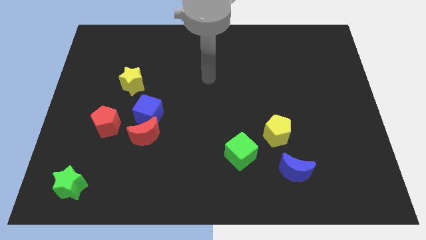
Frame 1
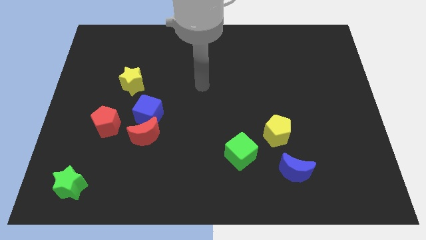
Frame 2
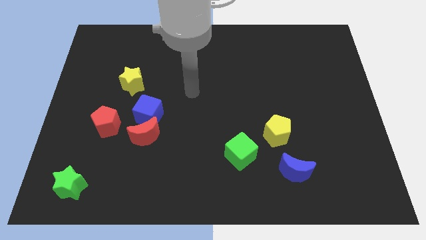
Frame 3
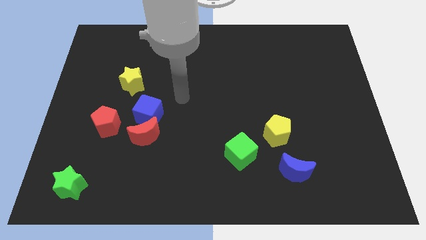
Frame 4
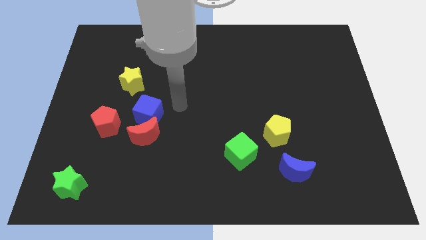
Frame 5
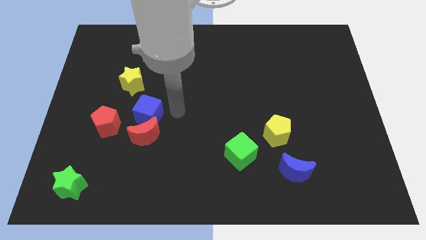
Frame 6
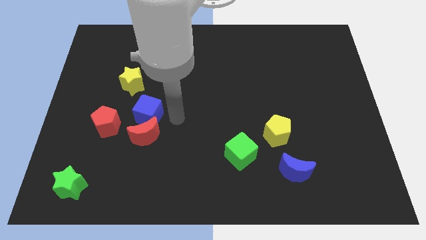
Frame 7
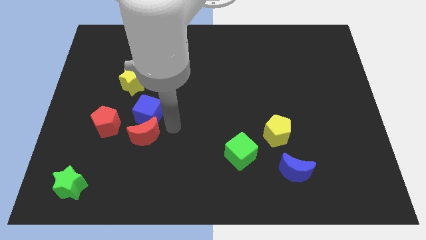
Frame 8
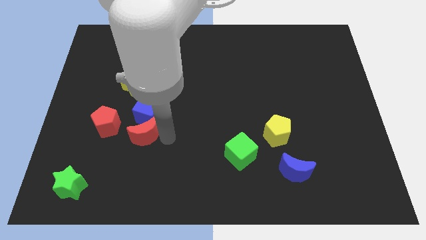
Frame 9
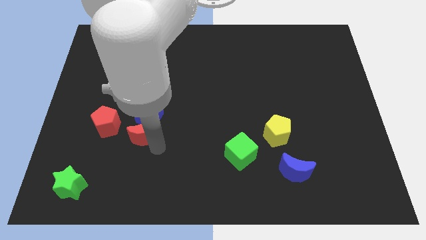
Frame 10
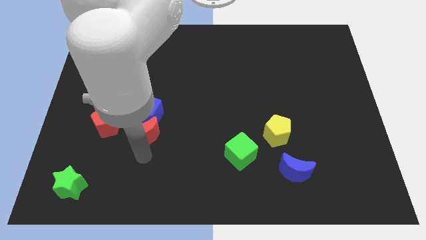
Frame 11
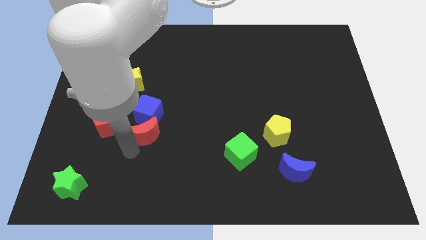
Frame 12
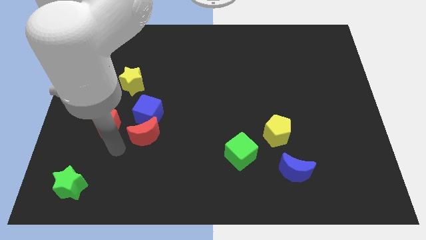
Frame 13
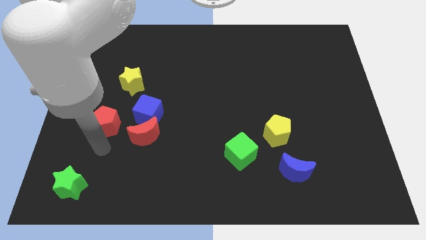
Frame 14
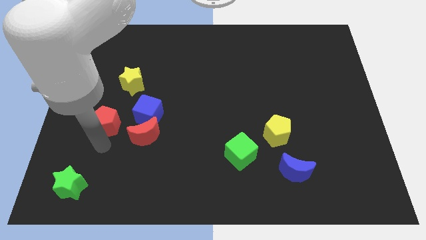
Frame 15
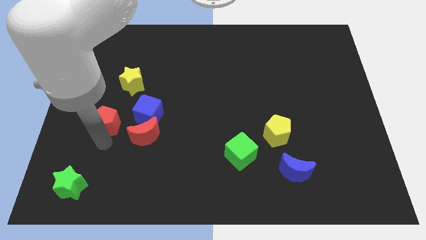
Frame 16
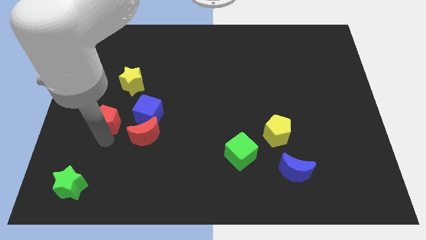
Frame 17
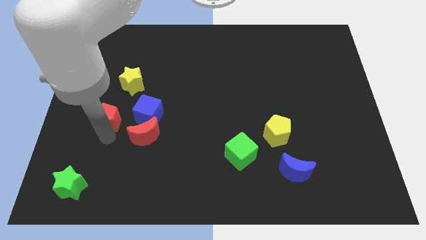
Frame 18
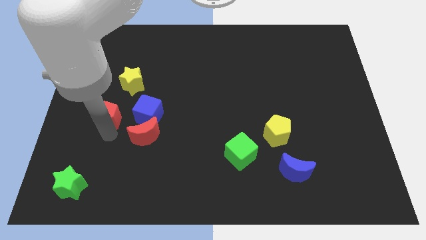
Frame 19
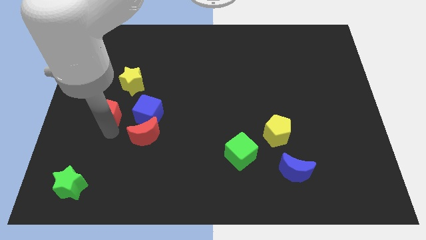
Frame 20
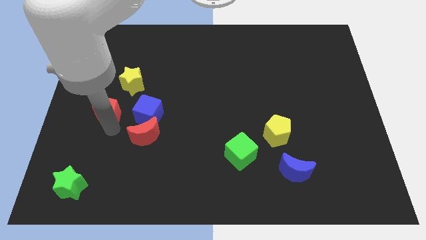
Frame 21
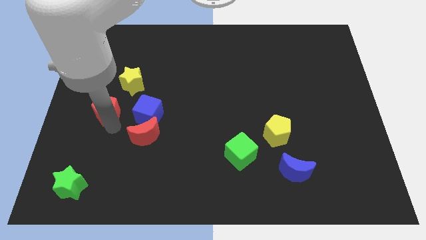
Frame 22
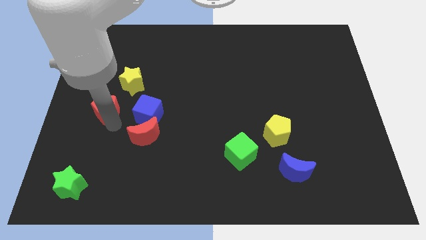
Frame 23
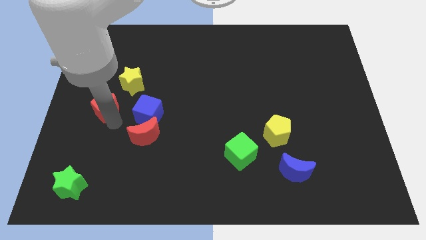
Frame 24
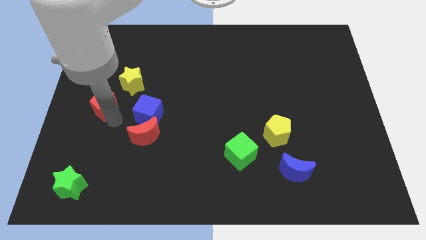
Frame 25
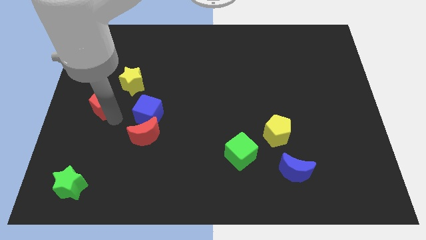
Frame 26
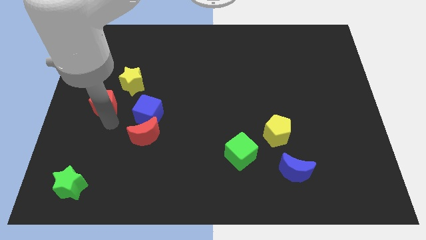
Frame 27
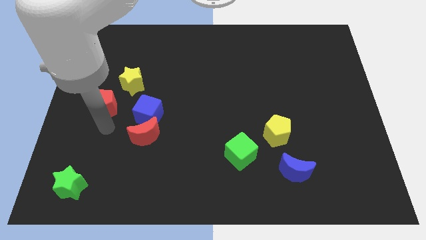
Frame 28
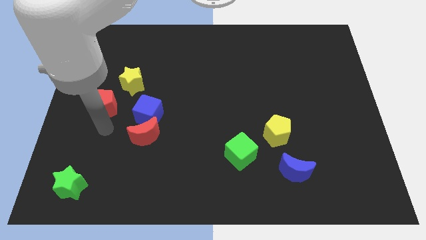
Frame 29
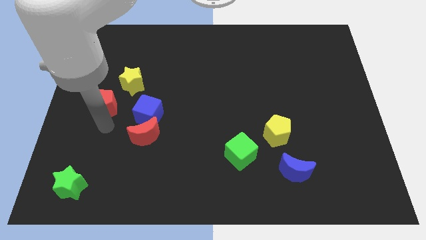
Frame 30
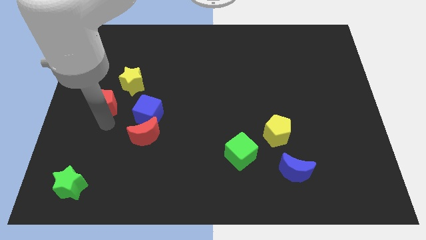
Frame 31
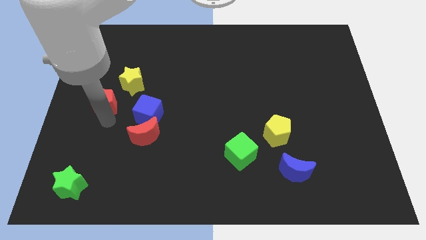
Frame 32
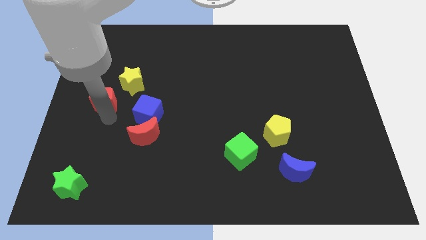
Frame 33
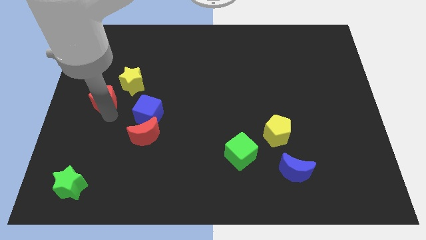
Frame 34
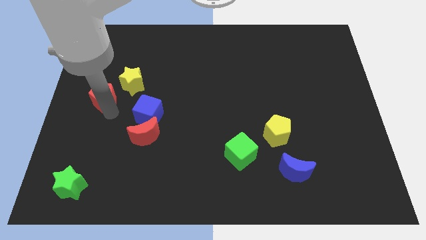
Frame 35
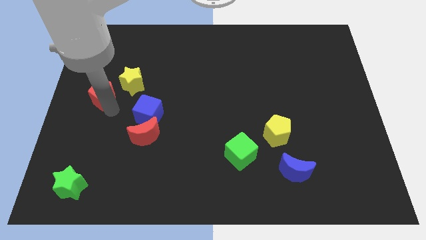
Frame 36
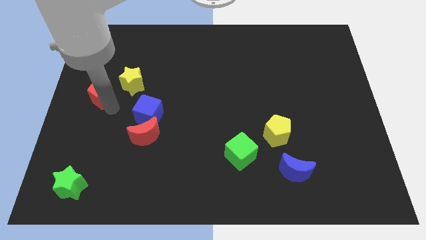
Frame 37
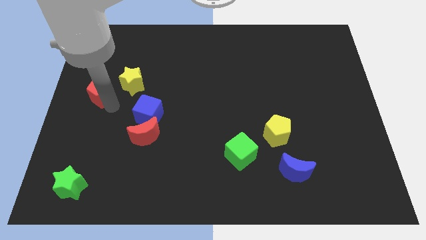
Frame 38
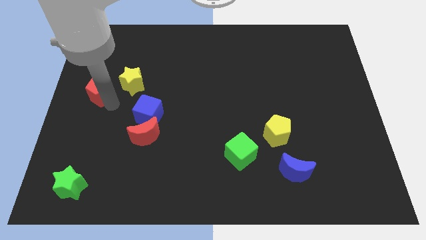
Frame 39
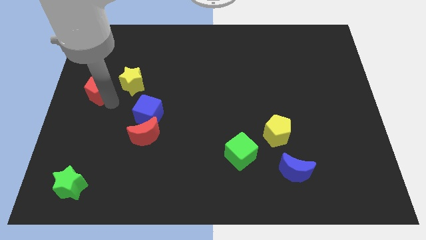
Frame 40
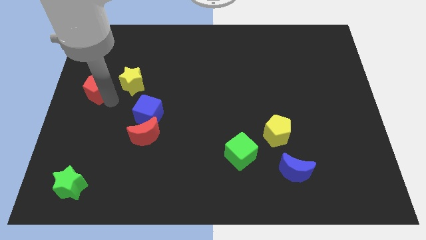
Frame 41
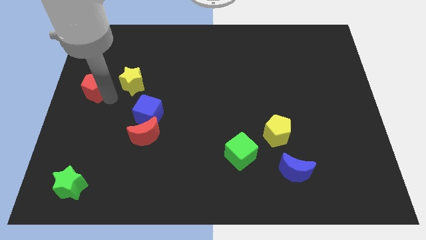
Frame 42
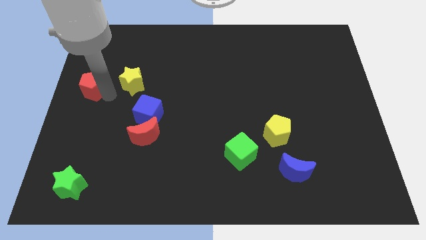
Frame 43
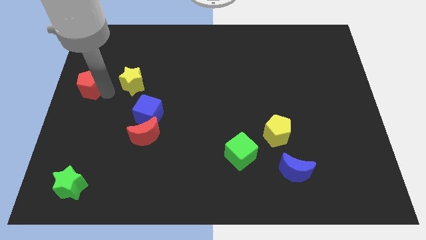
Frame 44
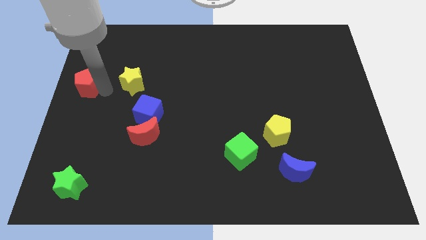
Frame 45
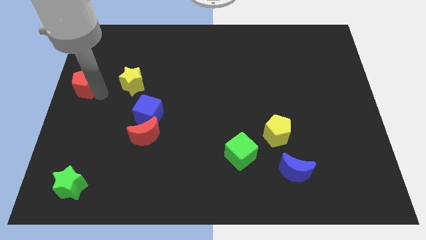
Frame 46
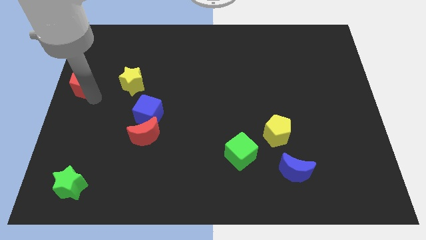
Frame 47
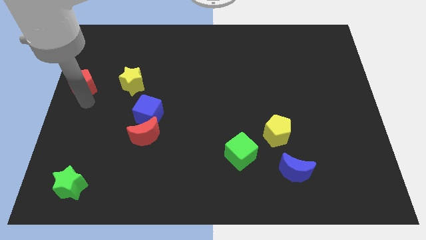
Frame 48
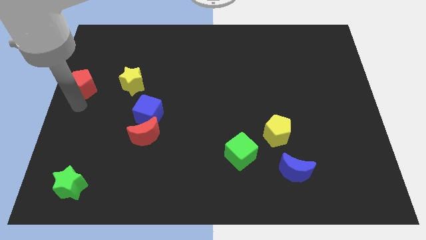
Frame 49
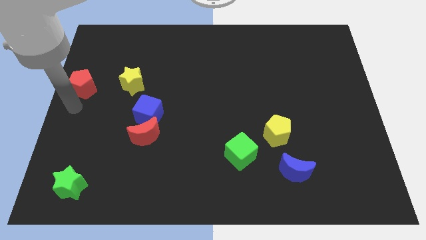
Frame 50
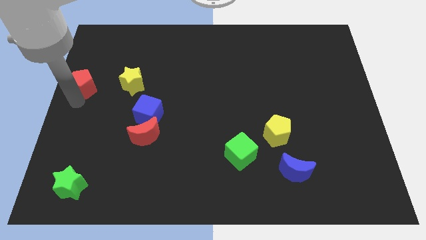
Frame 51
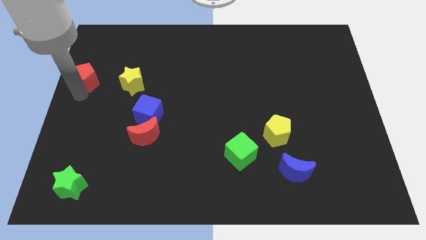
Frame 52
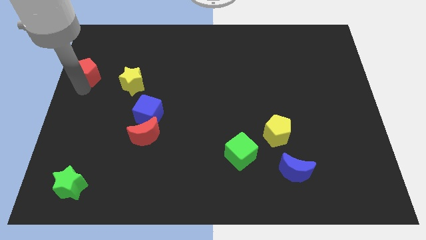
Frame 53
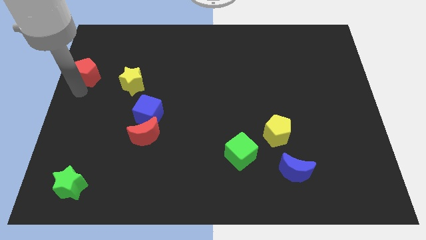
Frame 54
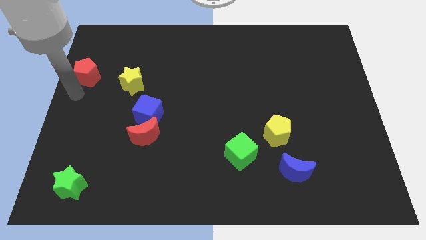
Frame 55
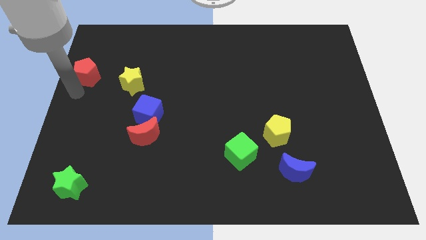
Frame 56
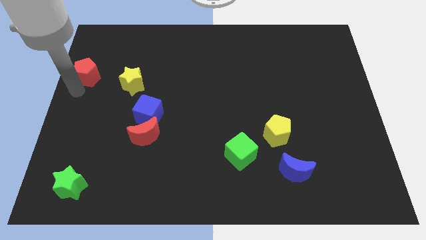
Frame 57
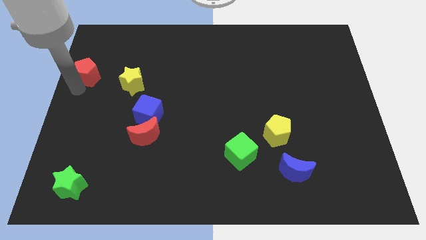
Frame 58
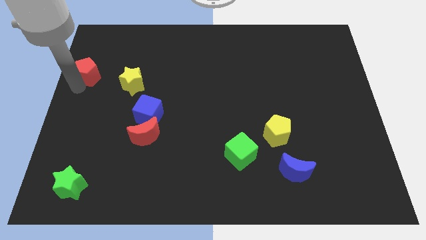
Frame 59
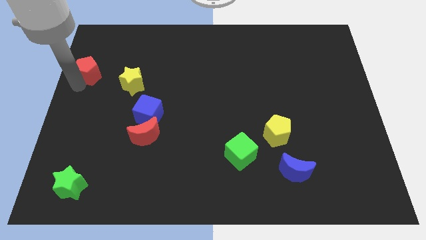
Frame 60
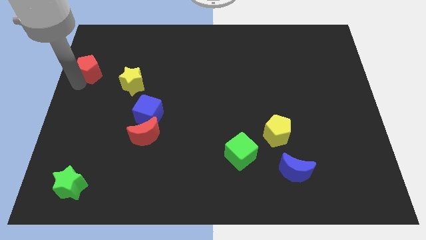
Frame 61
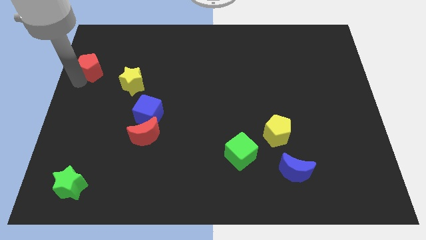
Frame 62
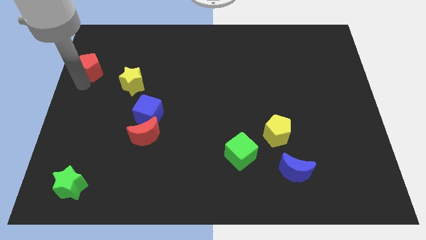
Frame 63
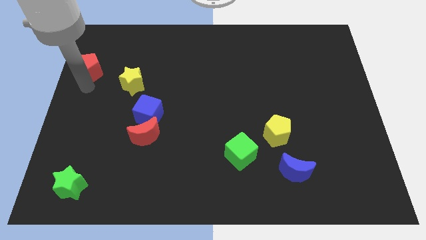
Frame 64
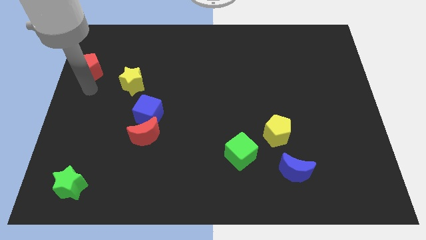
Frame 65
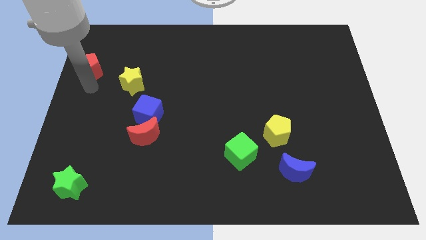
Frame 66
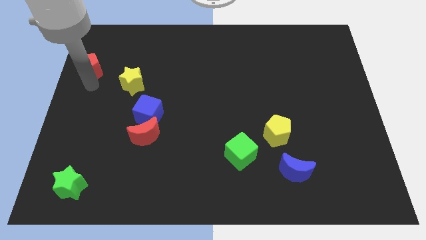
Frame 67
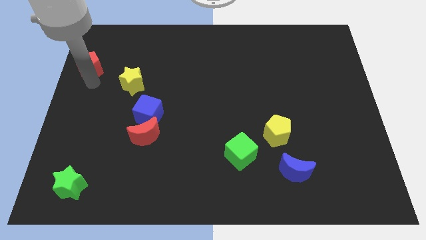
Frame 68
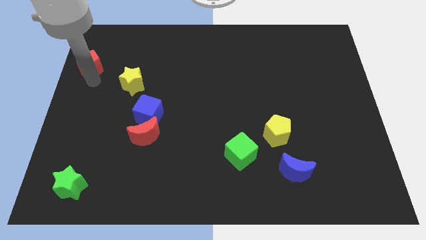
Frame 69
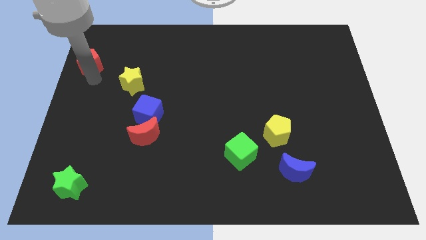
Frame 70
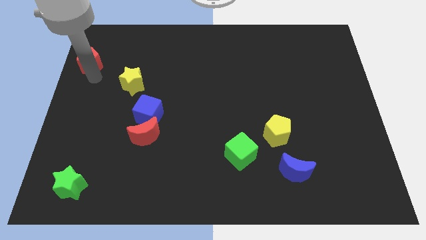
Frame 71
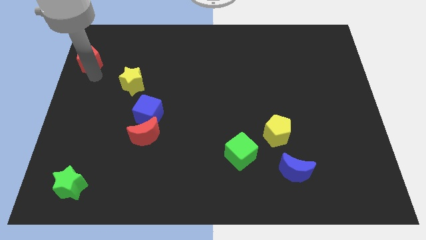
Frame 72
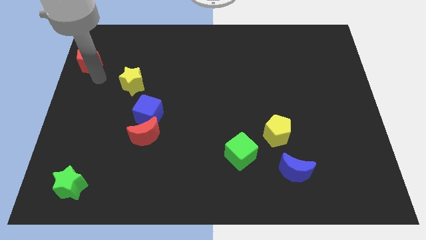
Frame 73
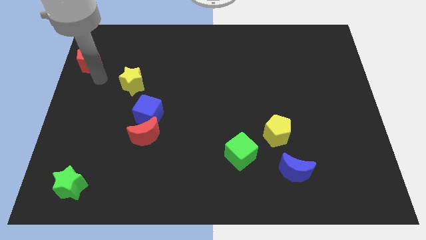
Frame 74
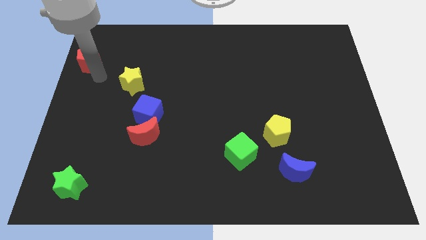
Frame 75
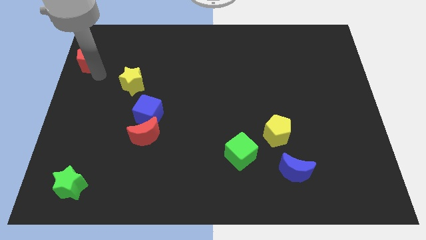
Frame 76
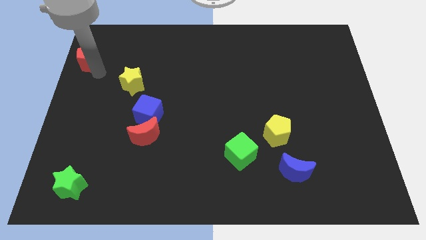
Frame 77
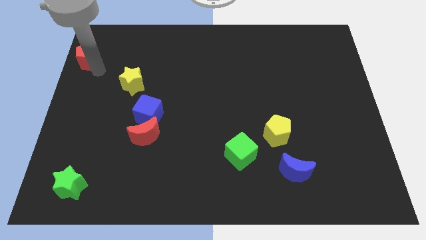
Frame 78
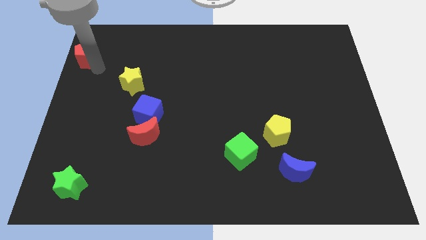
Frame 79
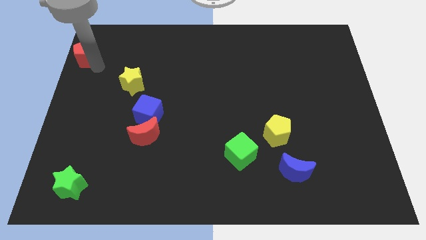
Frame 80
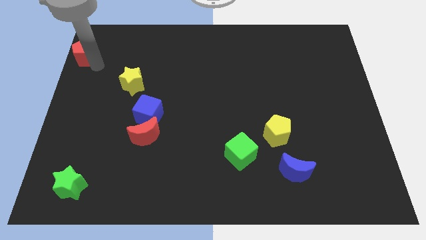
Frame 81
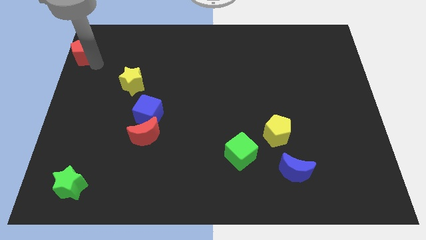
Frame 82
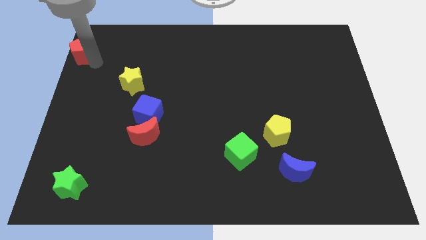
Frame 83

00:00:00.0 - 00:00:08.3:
slide the red pentagon to the upper left corner
